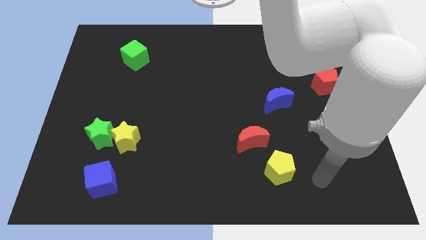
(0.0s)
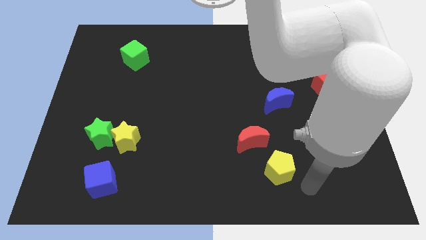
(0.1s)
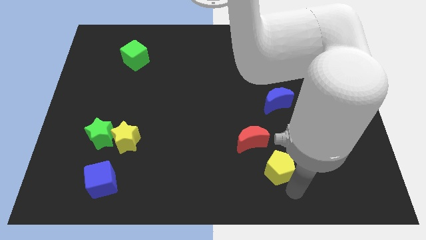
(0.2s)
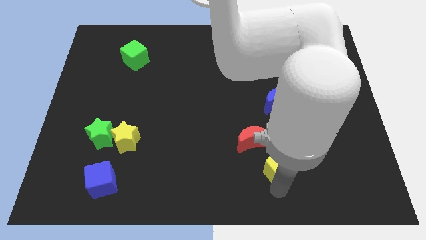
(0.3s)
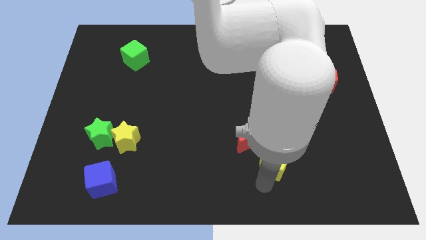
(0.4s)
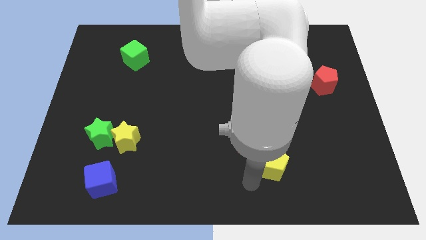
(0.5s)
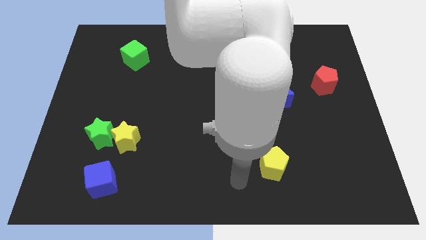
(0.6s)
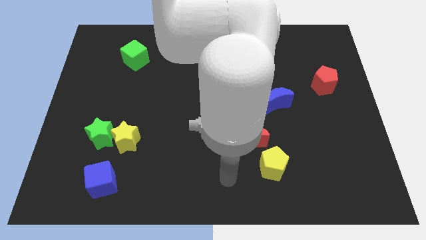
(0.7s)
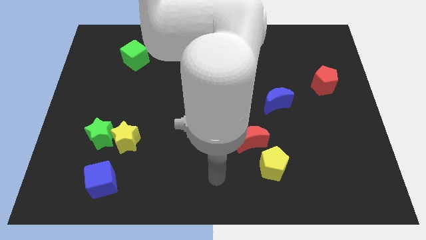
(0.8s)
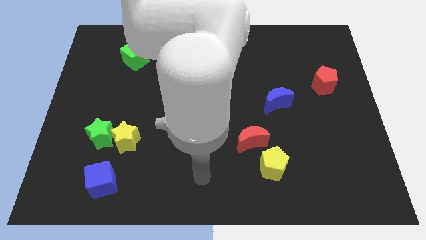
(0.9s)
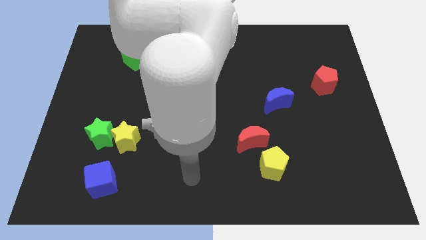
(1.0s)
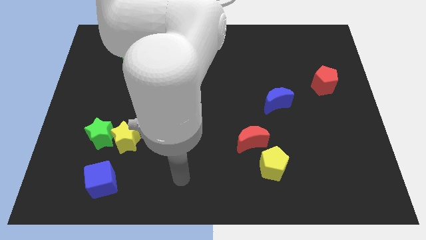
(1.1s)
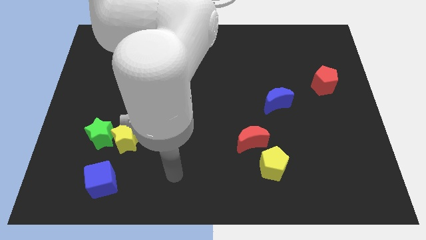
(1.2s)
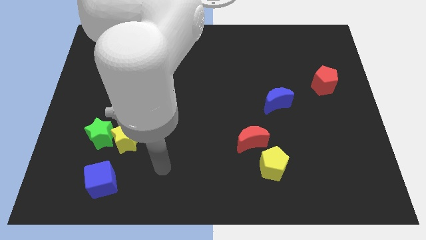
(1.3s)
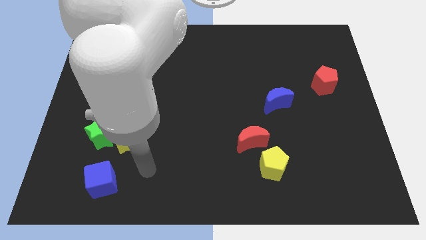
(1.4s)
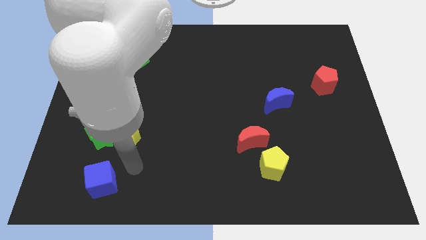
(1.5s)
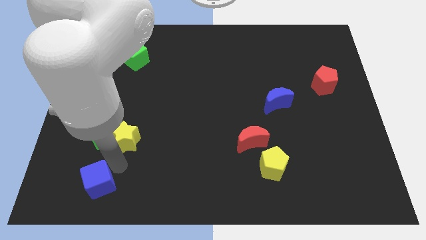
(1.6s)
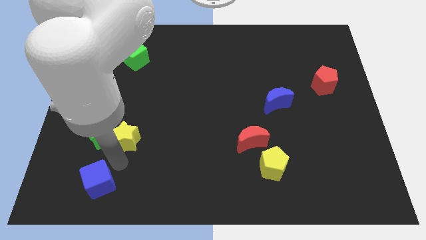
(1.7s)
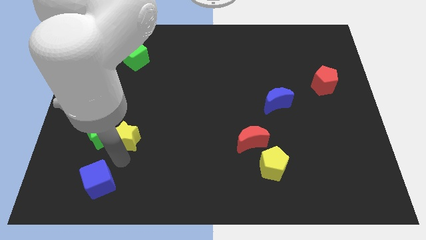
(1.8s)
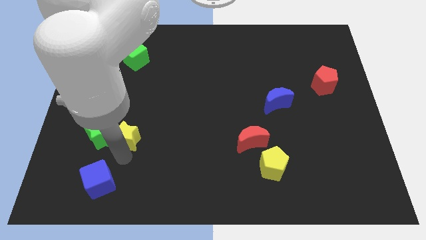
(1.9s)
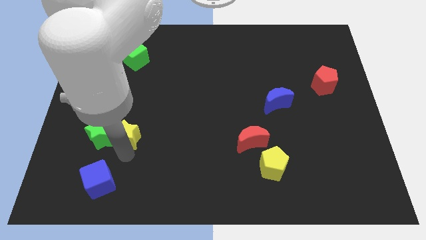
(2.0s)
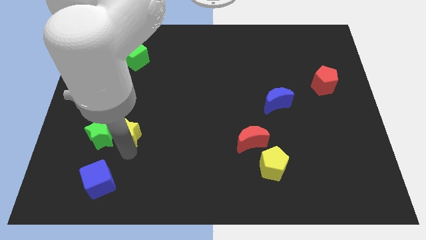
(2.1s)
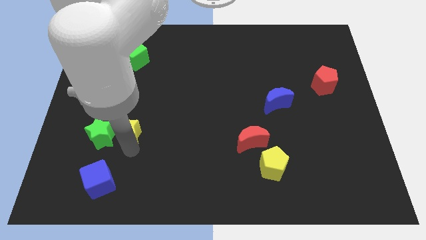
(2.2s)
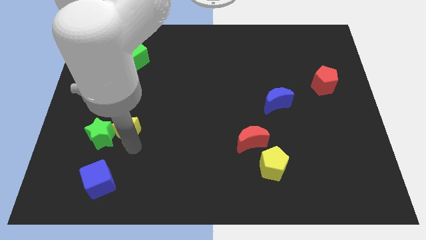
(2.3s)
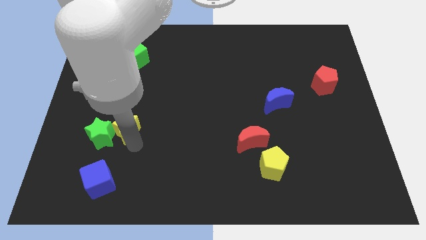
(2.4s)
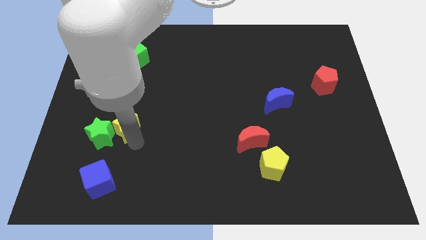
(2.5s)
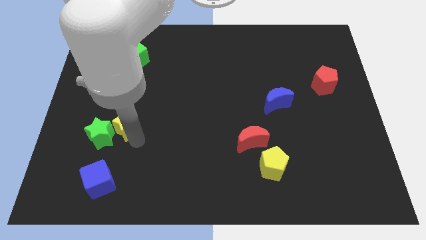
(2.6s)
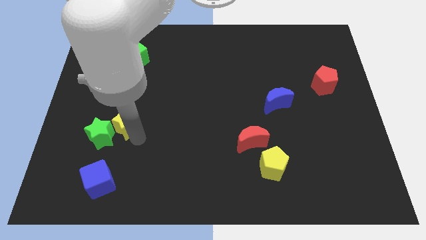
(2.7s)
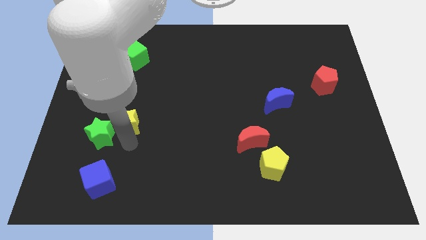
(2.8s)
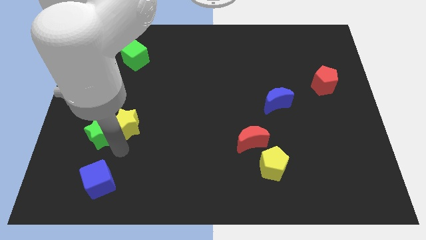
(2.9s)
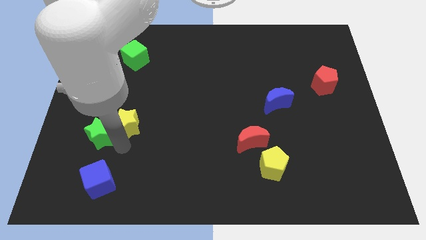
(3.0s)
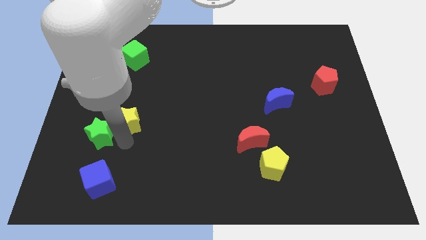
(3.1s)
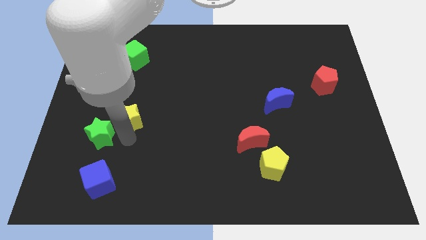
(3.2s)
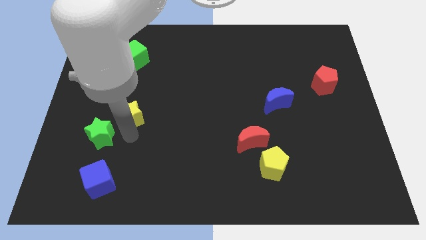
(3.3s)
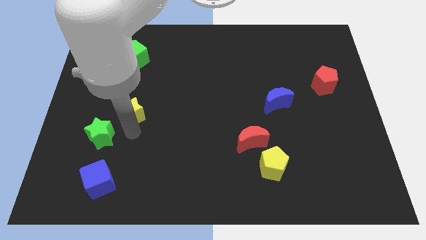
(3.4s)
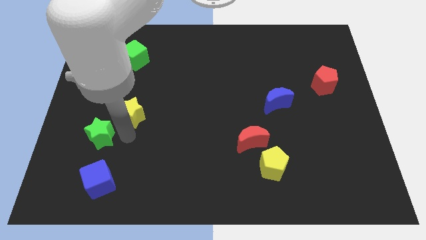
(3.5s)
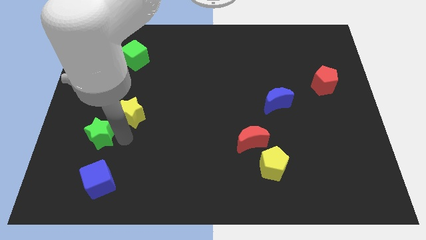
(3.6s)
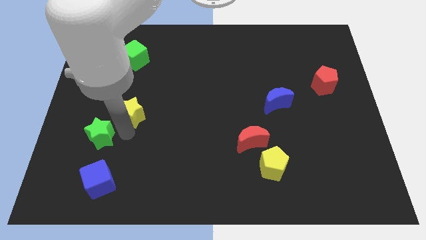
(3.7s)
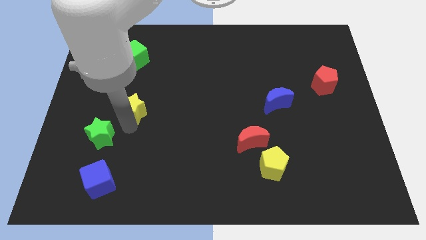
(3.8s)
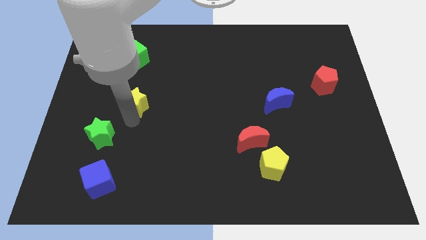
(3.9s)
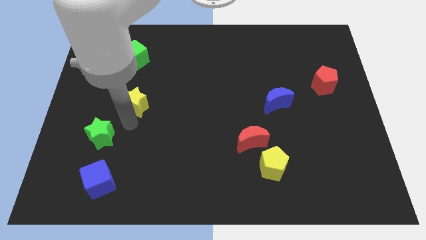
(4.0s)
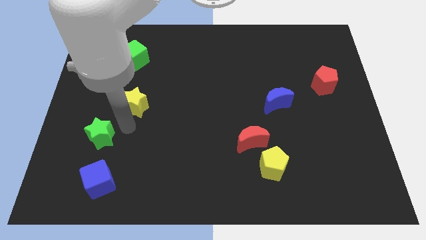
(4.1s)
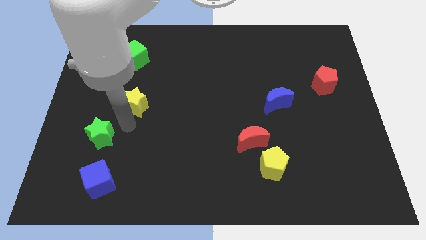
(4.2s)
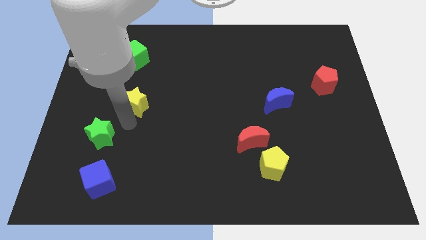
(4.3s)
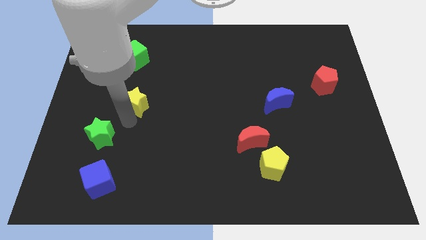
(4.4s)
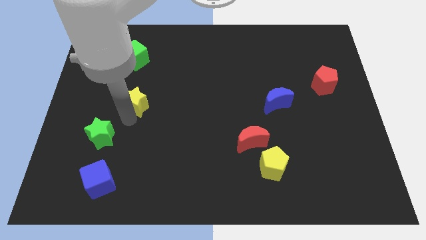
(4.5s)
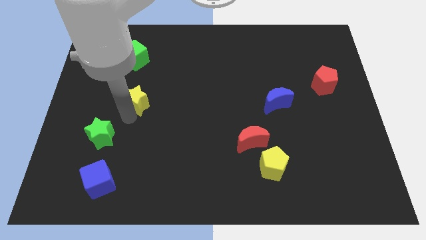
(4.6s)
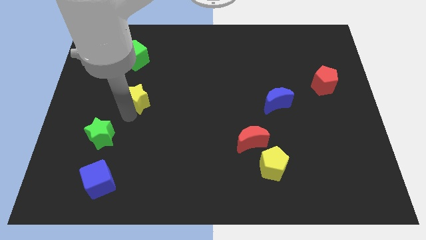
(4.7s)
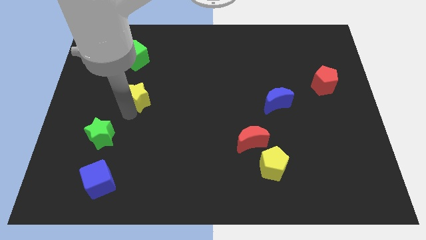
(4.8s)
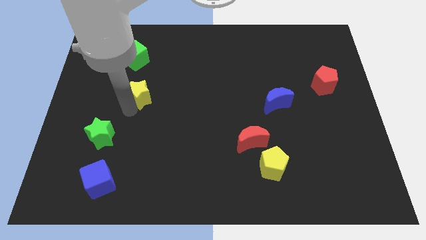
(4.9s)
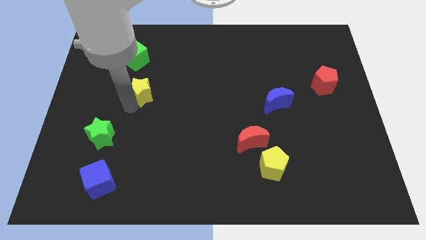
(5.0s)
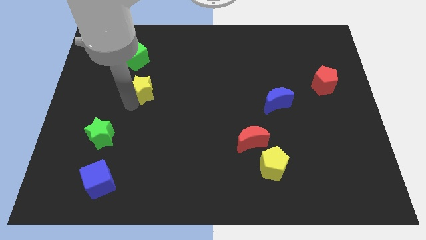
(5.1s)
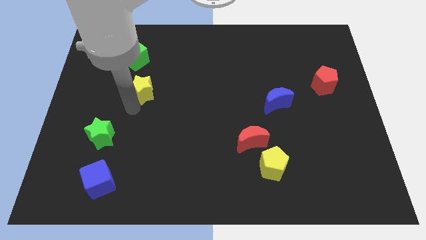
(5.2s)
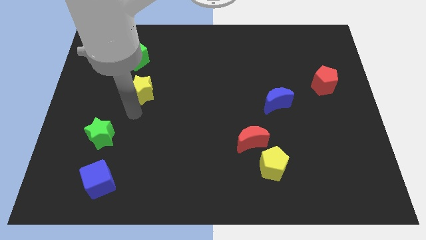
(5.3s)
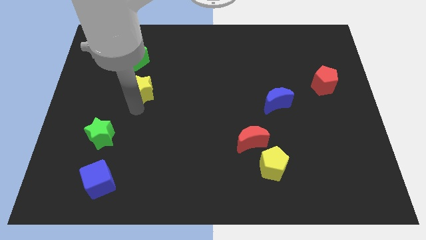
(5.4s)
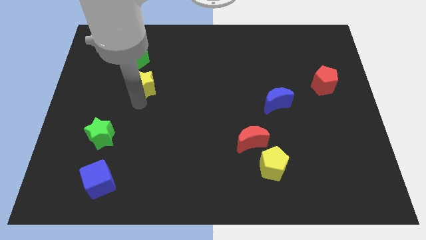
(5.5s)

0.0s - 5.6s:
slide the yellow star to the bottom right of the green cube

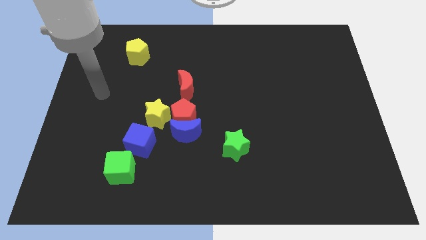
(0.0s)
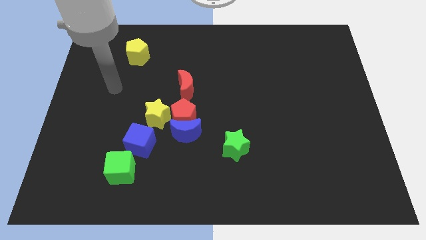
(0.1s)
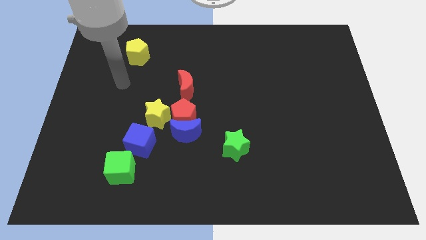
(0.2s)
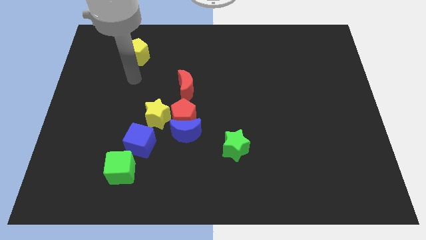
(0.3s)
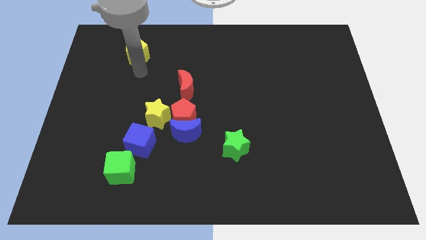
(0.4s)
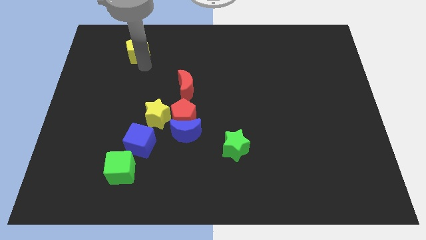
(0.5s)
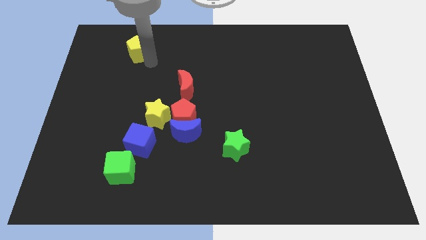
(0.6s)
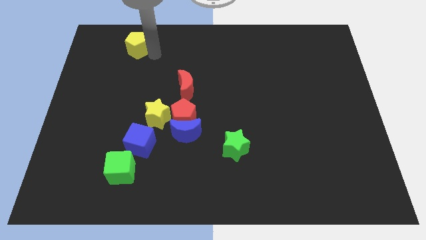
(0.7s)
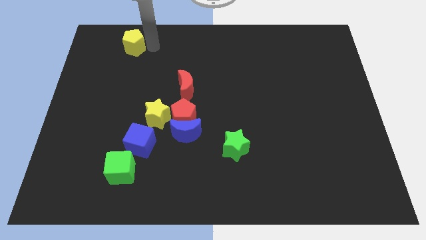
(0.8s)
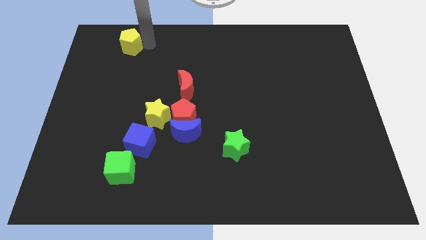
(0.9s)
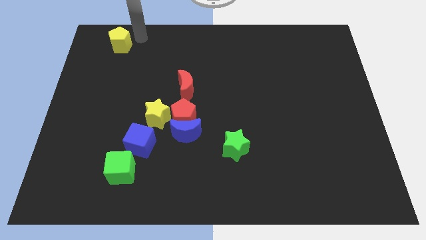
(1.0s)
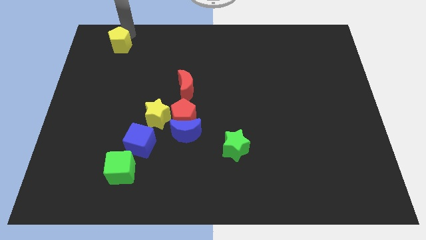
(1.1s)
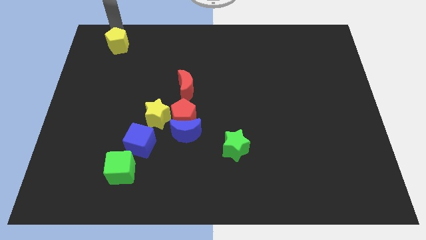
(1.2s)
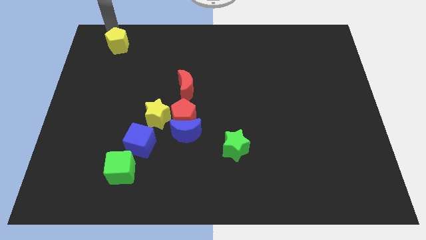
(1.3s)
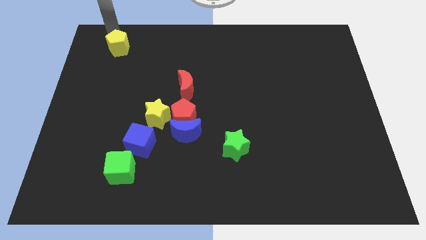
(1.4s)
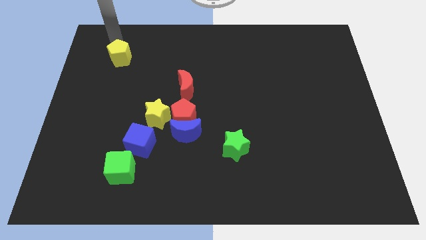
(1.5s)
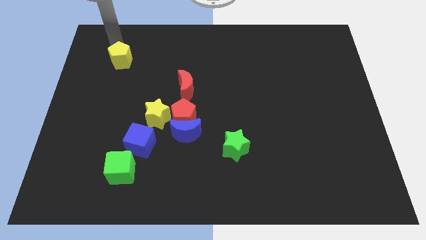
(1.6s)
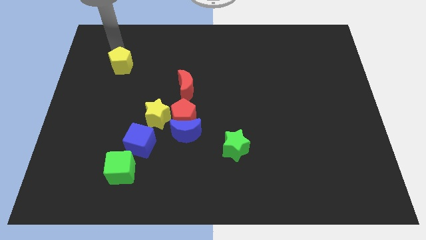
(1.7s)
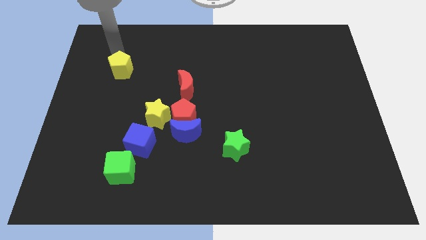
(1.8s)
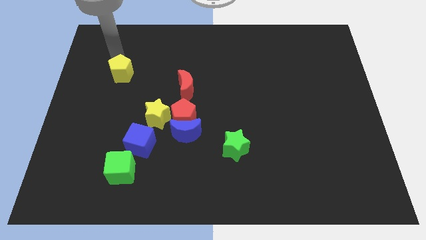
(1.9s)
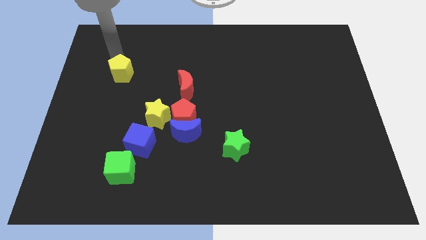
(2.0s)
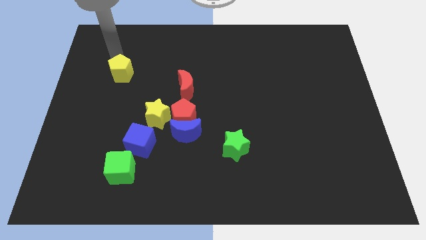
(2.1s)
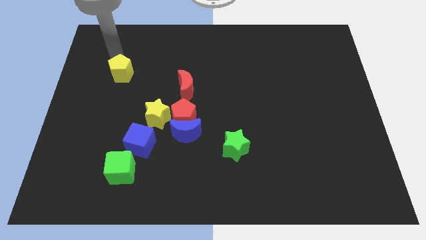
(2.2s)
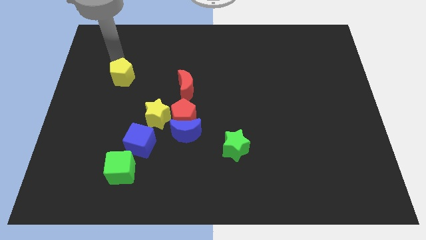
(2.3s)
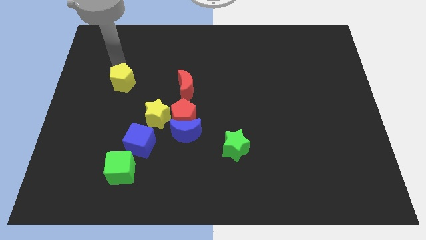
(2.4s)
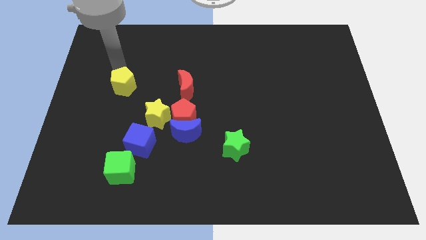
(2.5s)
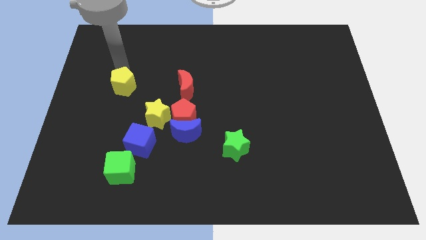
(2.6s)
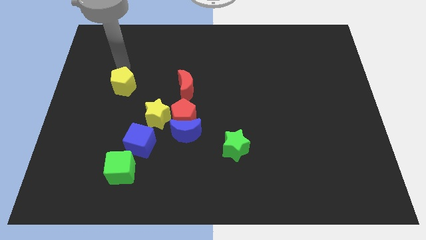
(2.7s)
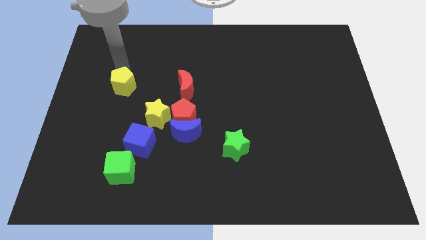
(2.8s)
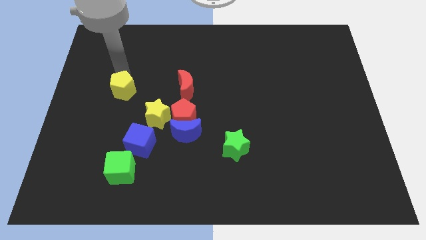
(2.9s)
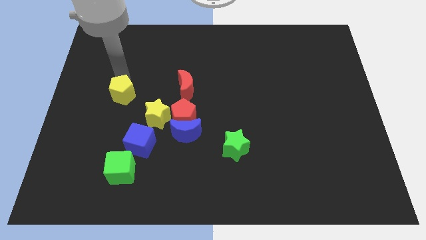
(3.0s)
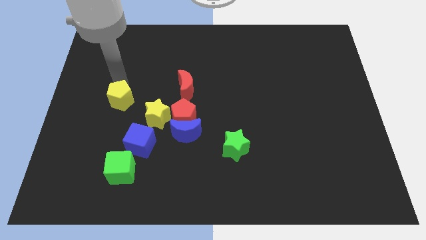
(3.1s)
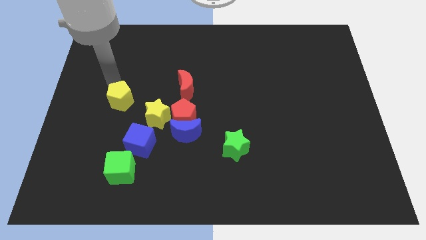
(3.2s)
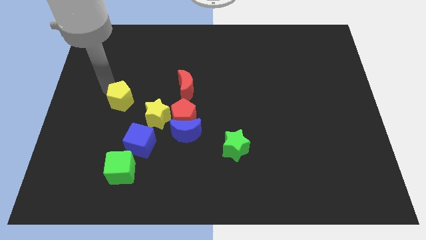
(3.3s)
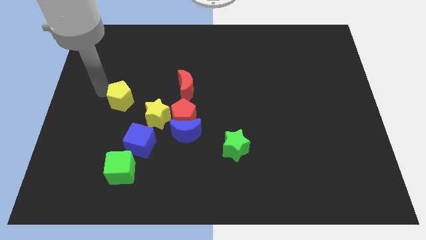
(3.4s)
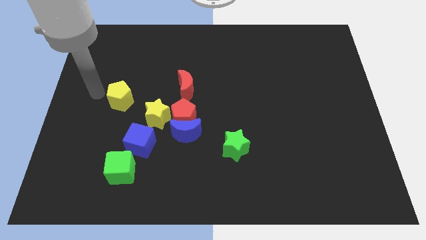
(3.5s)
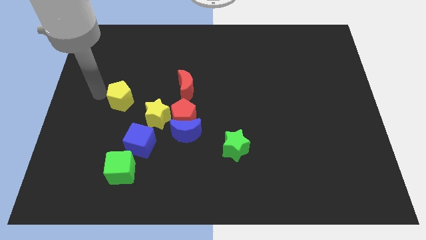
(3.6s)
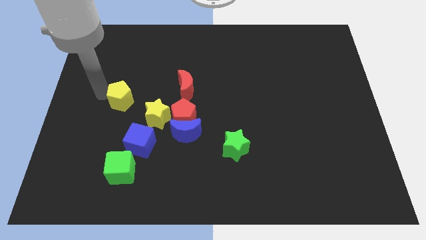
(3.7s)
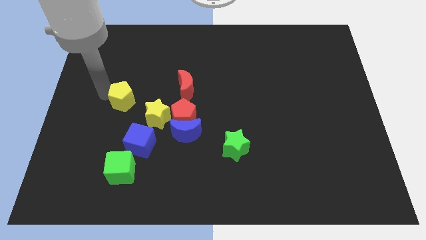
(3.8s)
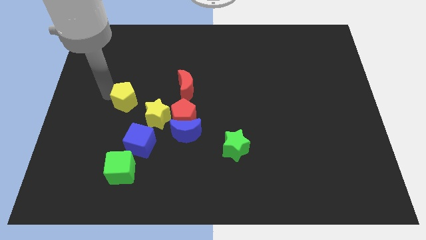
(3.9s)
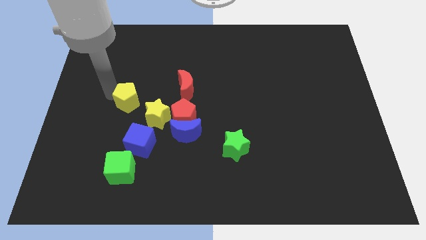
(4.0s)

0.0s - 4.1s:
move the yellow pentagon to the top side of the blue cube
